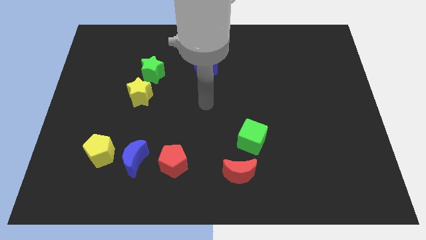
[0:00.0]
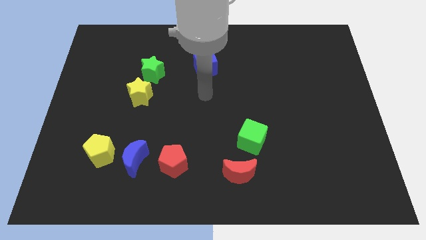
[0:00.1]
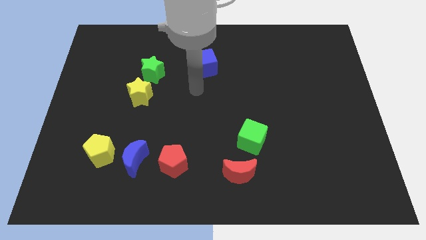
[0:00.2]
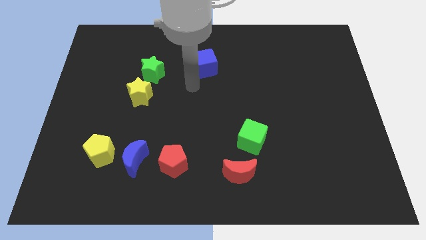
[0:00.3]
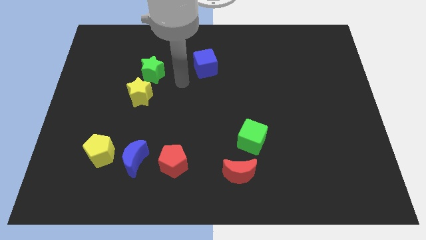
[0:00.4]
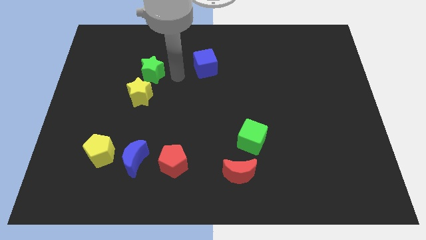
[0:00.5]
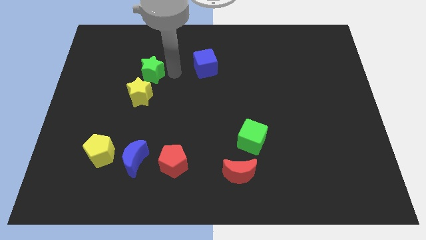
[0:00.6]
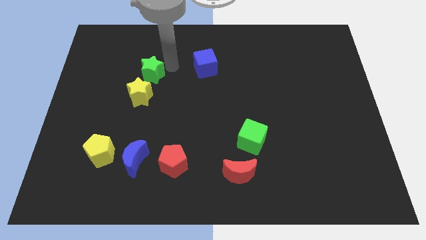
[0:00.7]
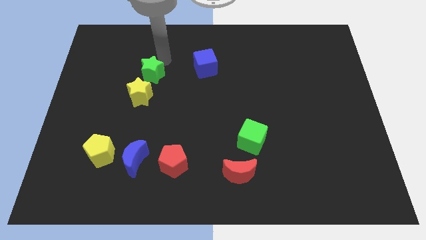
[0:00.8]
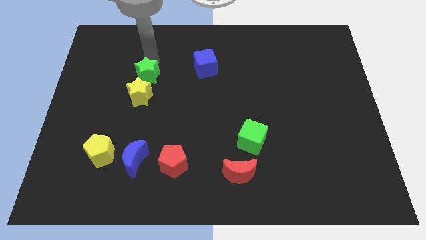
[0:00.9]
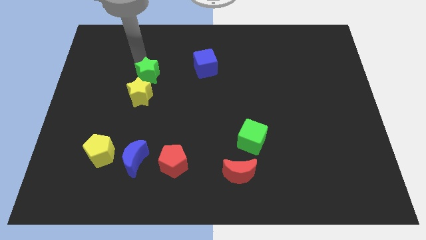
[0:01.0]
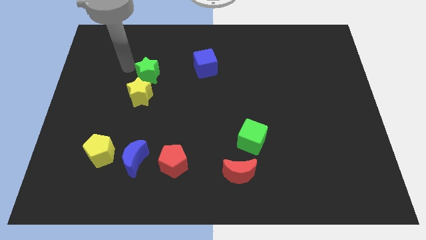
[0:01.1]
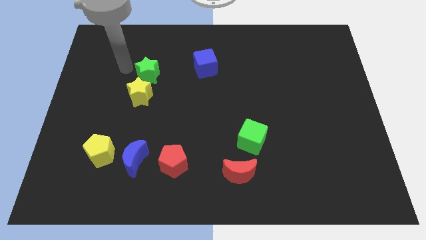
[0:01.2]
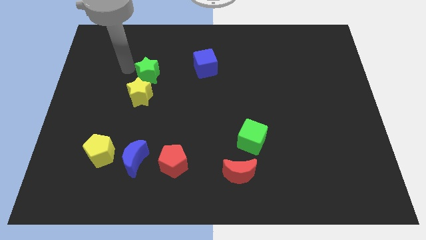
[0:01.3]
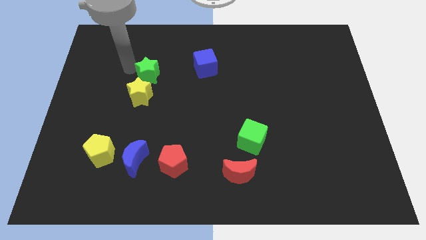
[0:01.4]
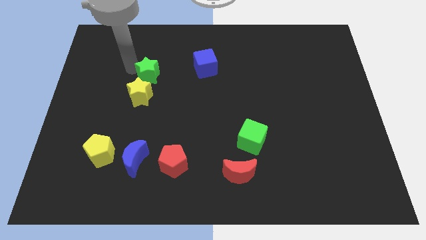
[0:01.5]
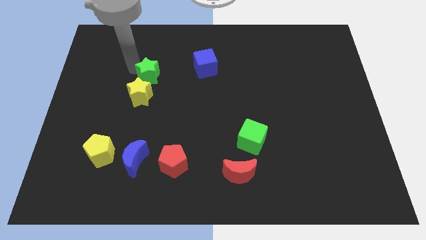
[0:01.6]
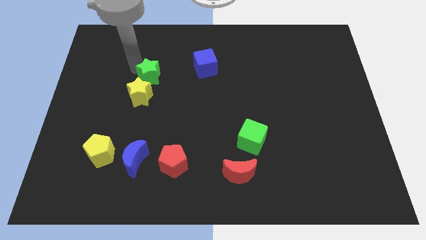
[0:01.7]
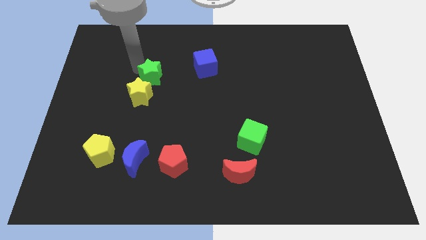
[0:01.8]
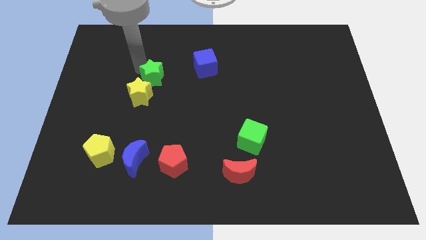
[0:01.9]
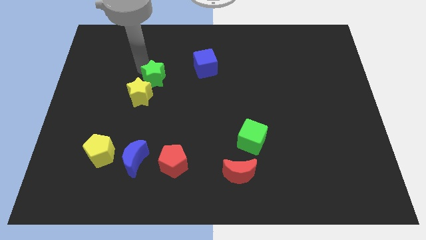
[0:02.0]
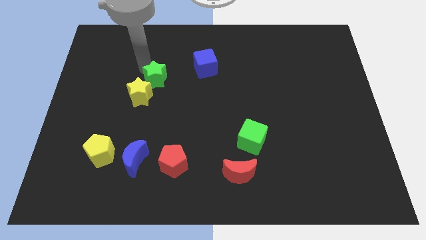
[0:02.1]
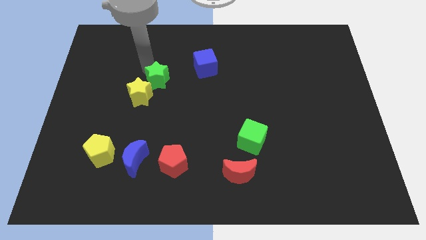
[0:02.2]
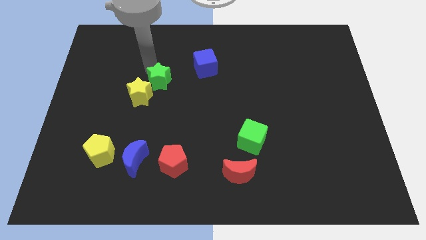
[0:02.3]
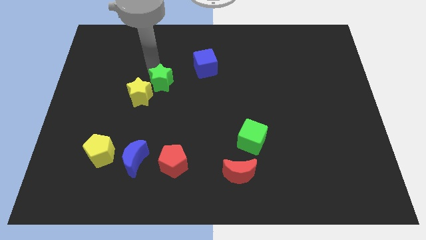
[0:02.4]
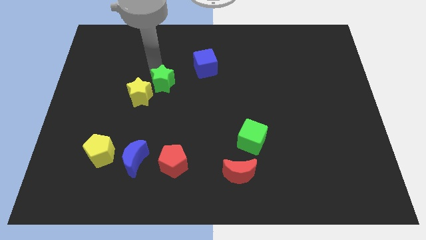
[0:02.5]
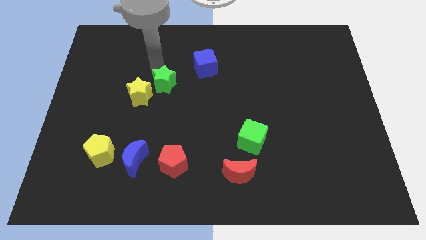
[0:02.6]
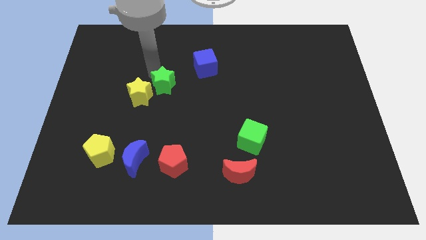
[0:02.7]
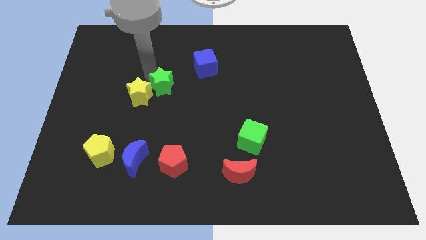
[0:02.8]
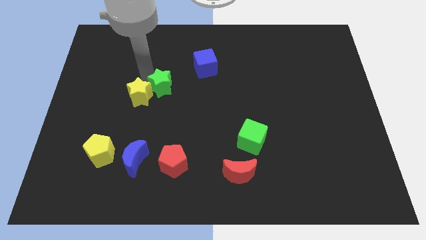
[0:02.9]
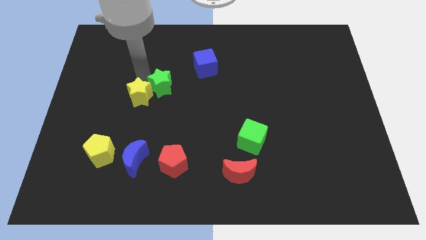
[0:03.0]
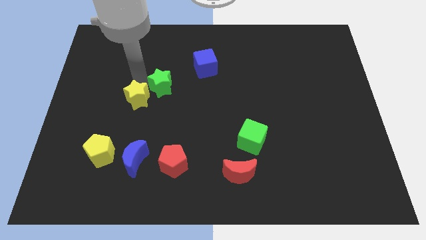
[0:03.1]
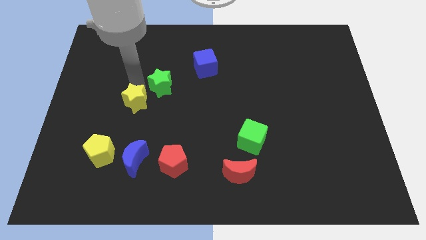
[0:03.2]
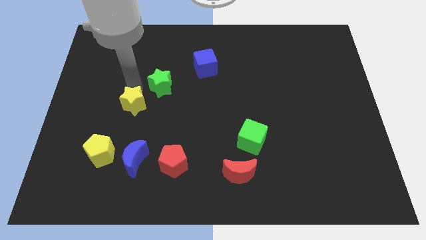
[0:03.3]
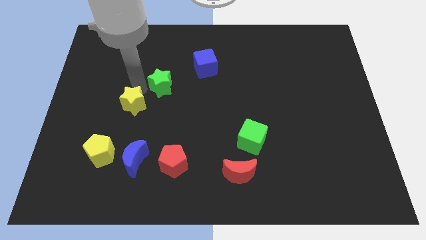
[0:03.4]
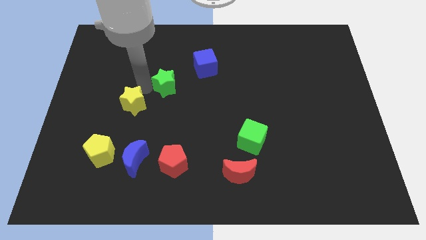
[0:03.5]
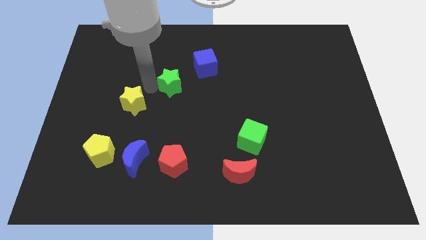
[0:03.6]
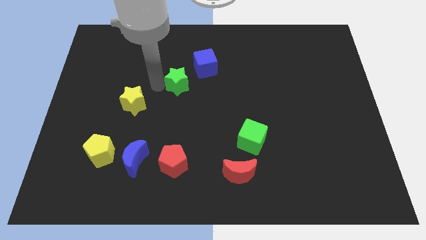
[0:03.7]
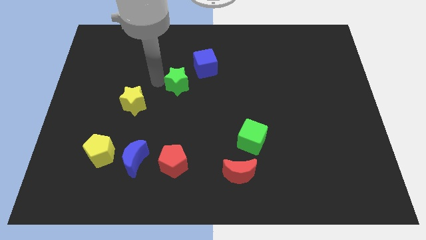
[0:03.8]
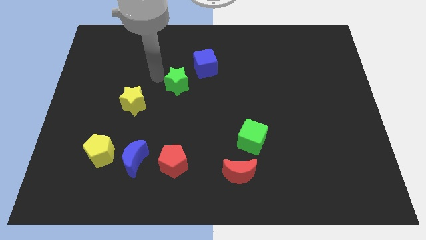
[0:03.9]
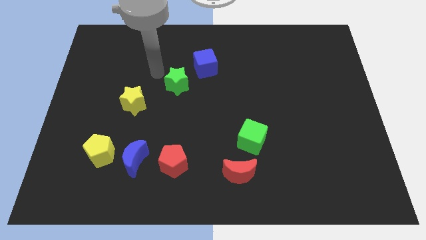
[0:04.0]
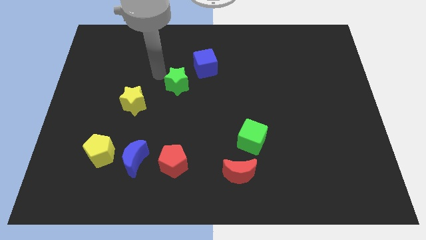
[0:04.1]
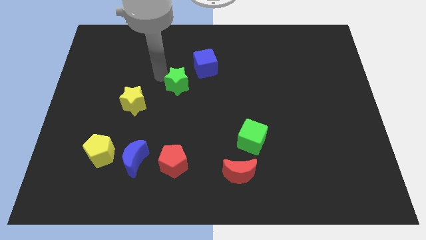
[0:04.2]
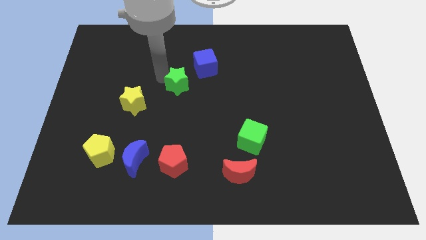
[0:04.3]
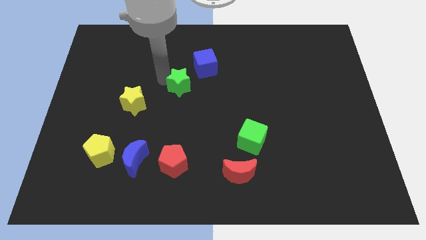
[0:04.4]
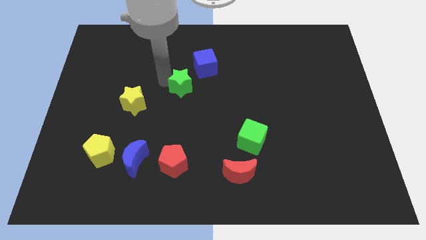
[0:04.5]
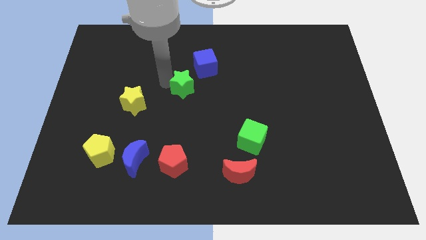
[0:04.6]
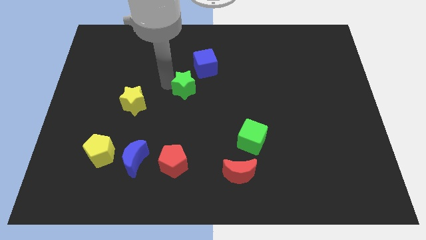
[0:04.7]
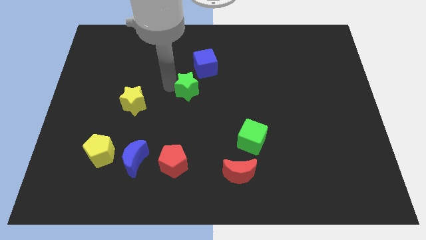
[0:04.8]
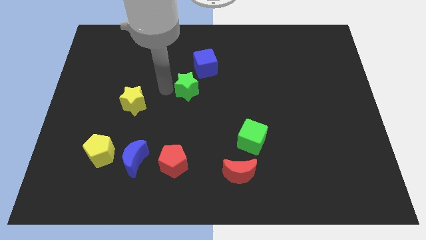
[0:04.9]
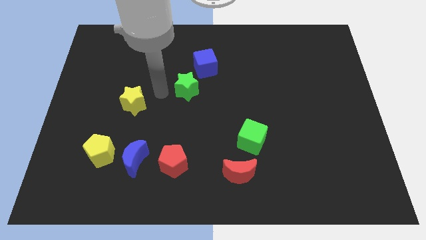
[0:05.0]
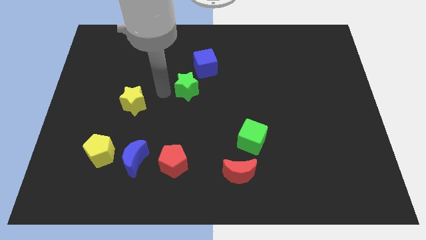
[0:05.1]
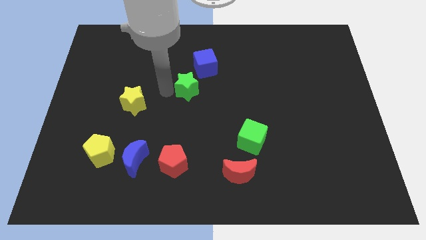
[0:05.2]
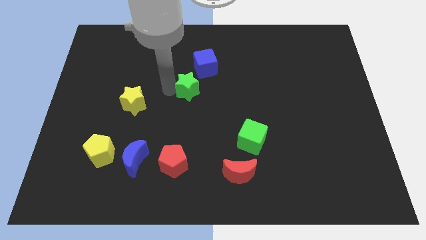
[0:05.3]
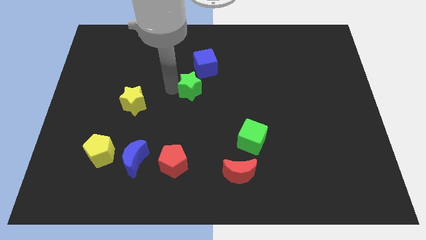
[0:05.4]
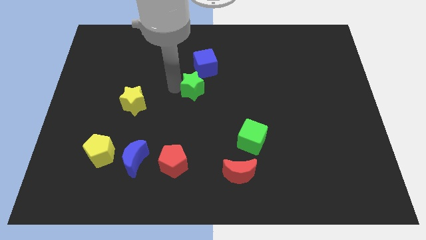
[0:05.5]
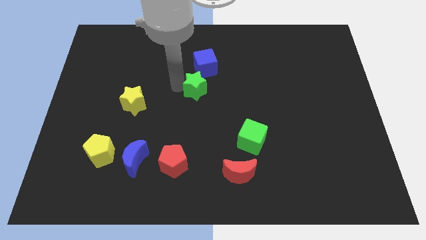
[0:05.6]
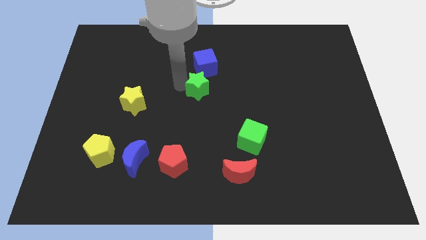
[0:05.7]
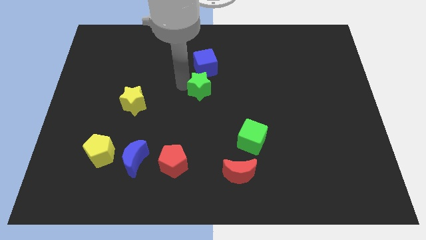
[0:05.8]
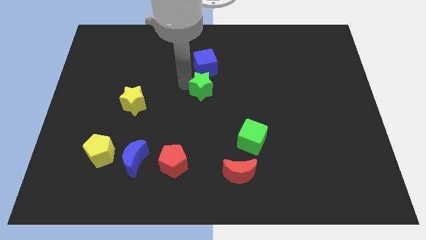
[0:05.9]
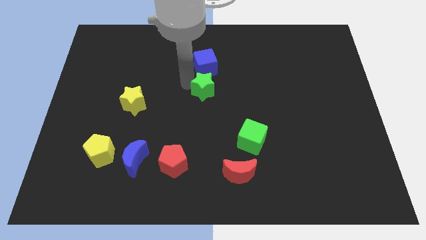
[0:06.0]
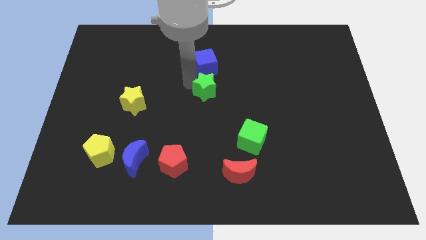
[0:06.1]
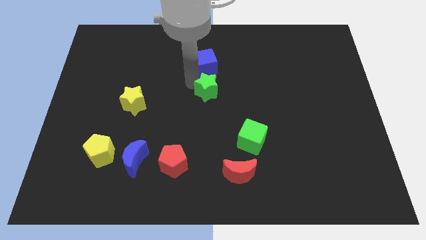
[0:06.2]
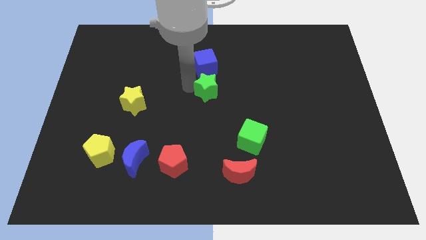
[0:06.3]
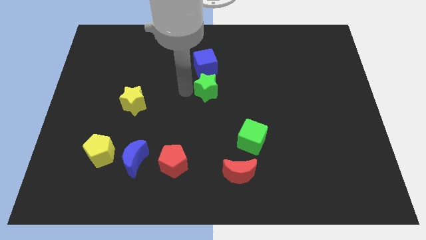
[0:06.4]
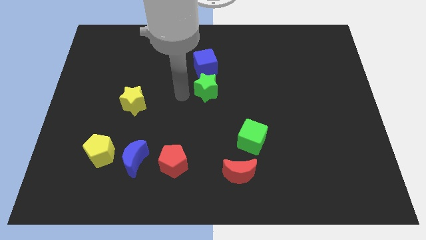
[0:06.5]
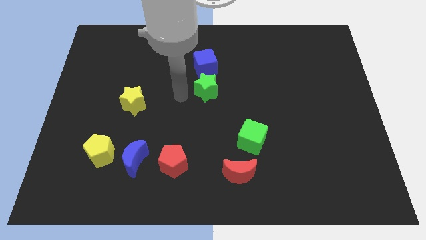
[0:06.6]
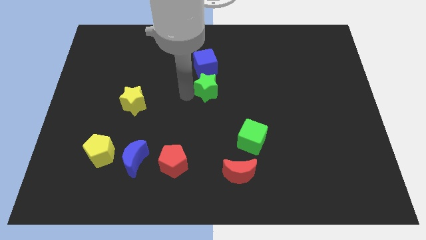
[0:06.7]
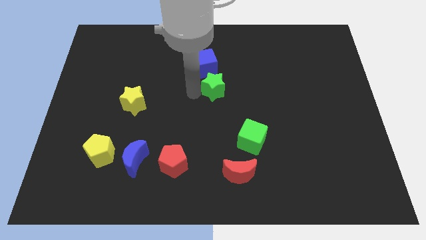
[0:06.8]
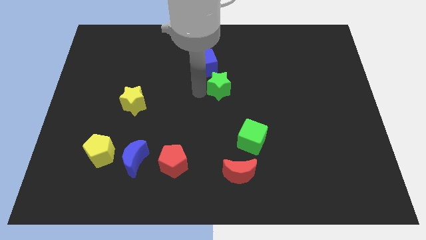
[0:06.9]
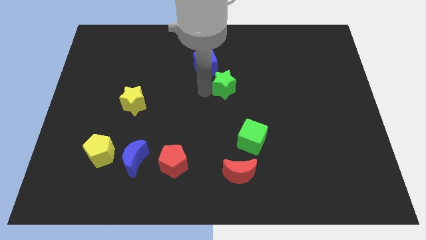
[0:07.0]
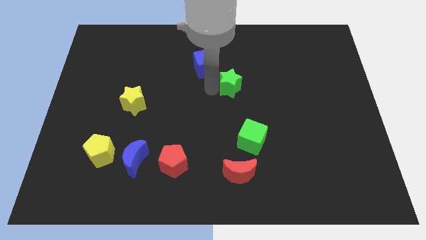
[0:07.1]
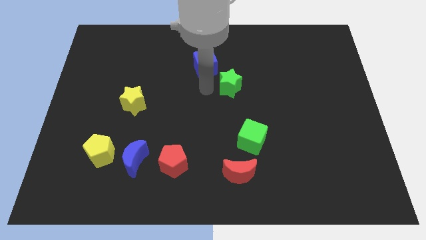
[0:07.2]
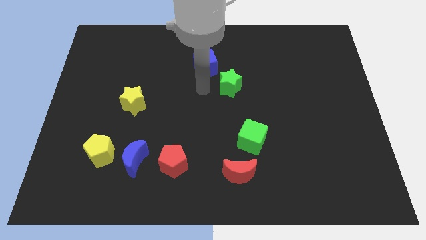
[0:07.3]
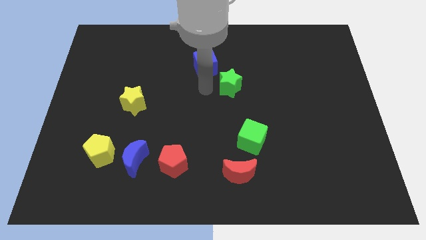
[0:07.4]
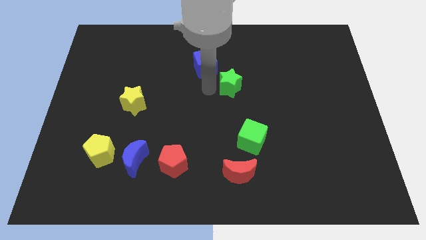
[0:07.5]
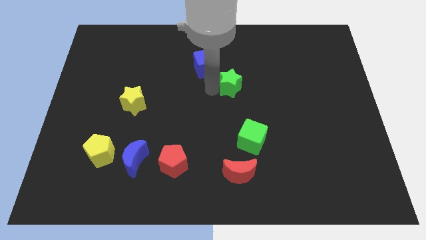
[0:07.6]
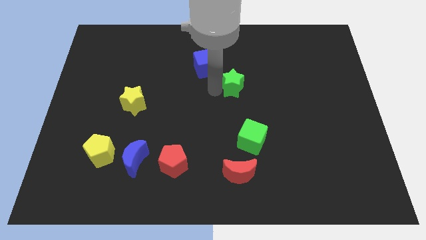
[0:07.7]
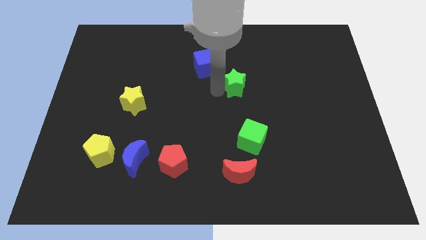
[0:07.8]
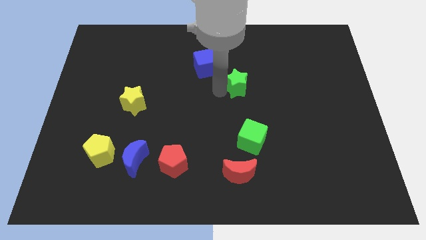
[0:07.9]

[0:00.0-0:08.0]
move the green star to the right

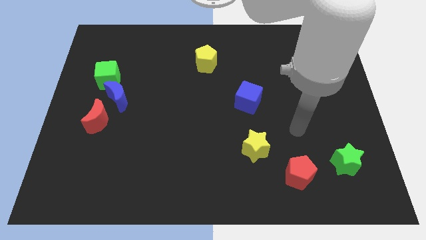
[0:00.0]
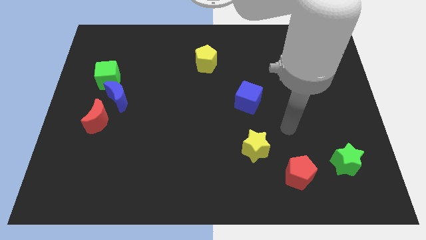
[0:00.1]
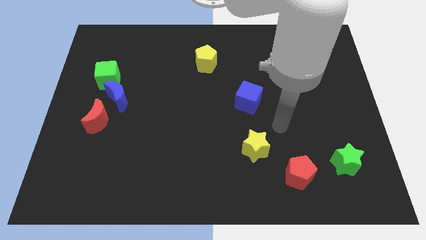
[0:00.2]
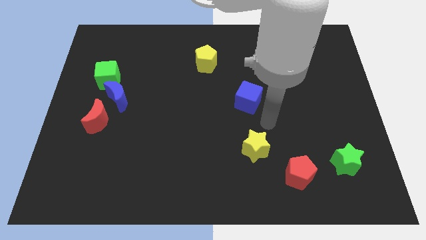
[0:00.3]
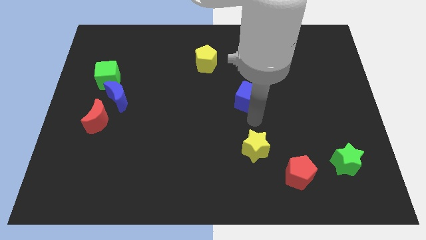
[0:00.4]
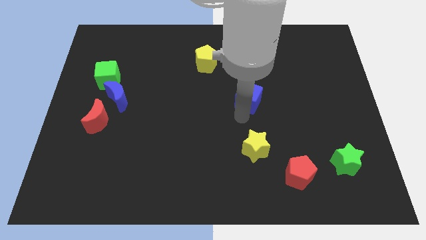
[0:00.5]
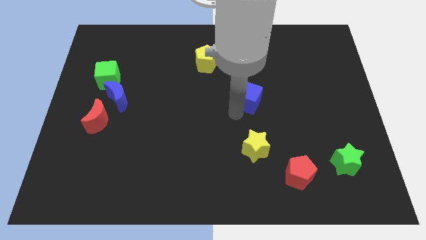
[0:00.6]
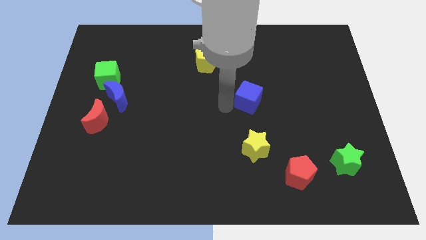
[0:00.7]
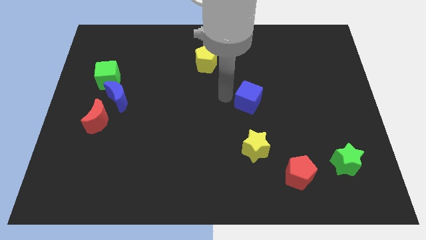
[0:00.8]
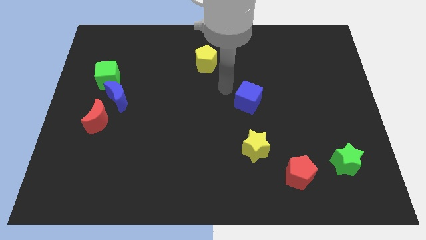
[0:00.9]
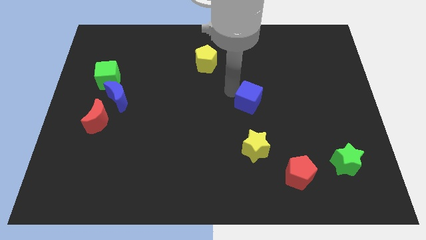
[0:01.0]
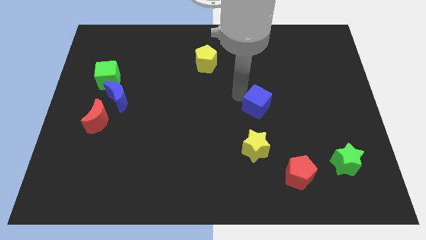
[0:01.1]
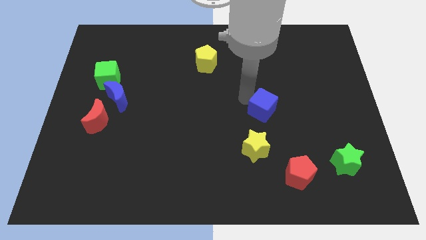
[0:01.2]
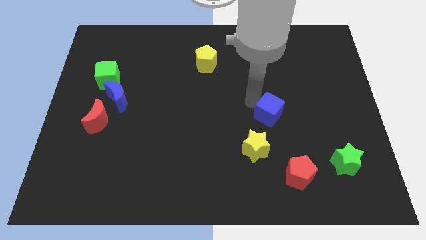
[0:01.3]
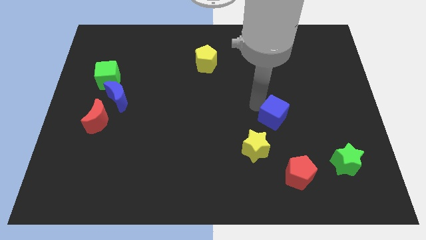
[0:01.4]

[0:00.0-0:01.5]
slide the blue cube a bit downwards and right
